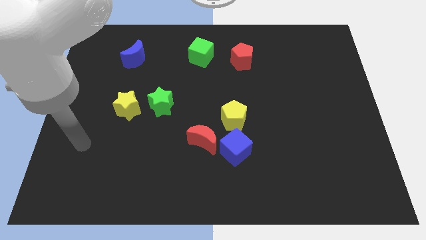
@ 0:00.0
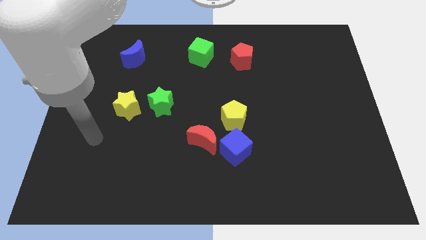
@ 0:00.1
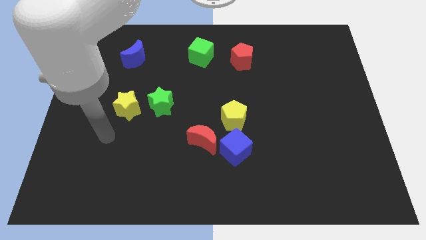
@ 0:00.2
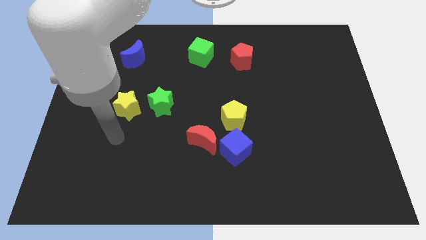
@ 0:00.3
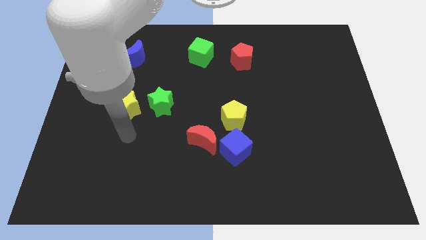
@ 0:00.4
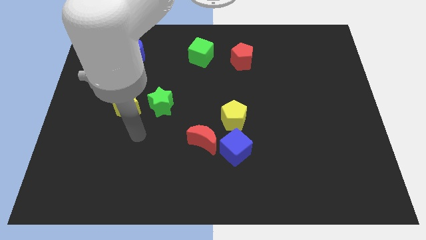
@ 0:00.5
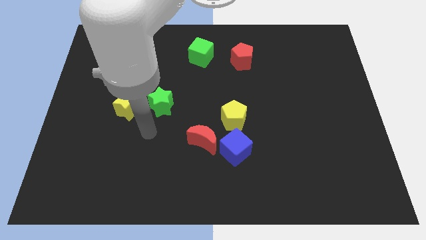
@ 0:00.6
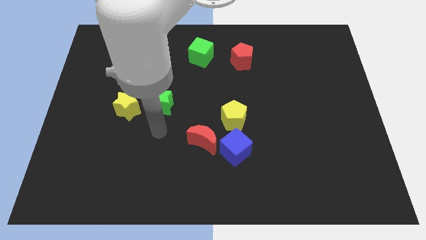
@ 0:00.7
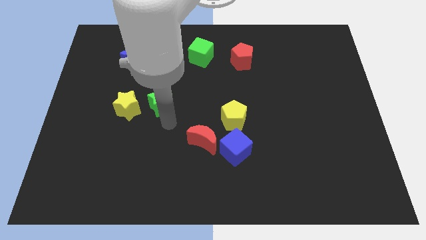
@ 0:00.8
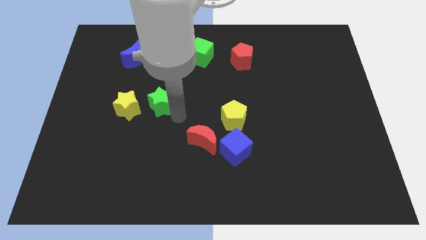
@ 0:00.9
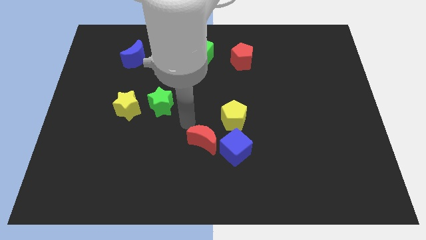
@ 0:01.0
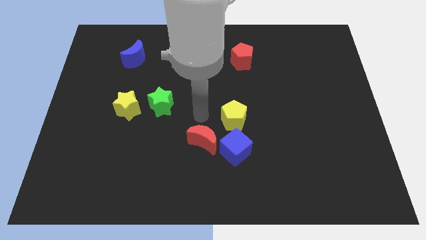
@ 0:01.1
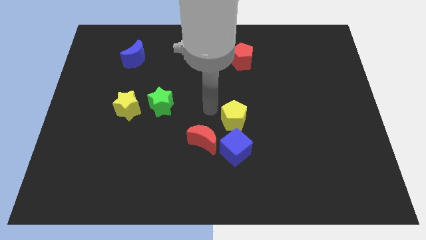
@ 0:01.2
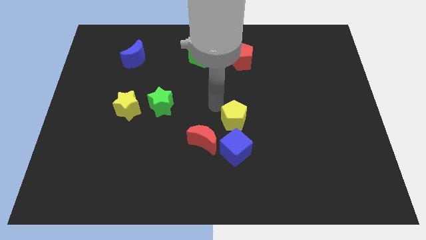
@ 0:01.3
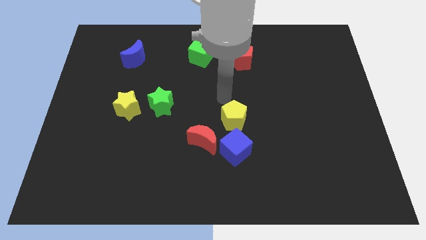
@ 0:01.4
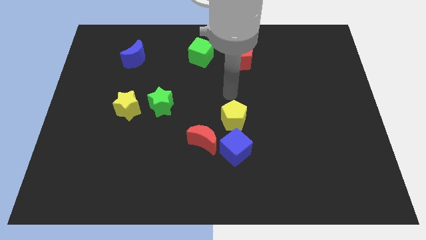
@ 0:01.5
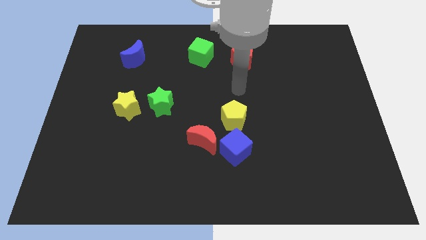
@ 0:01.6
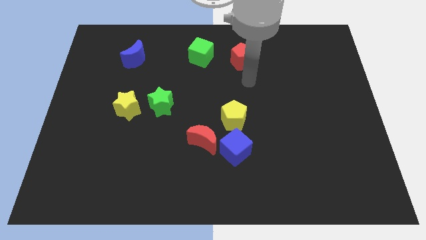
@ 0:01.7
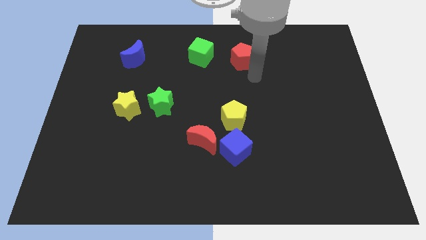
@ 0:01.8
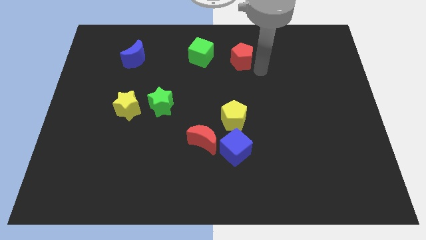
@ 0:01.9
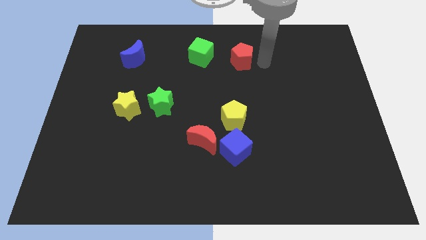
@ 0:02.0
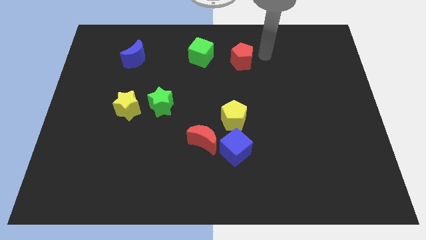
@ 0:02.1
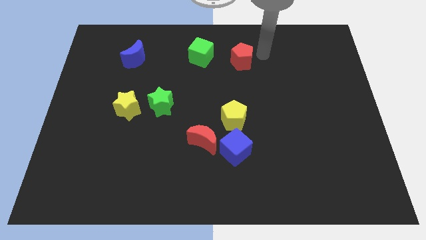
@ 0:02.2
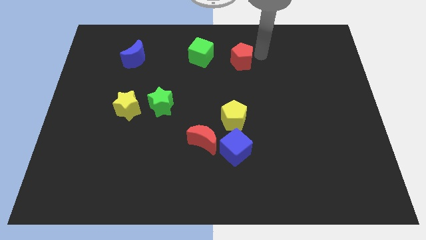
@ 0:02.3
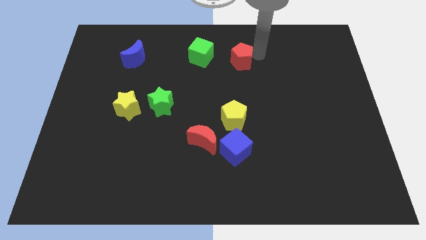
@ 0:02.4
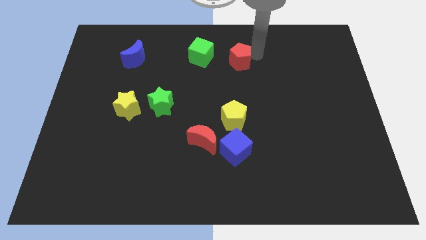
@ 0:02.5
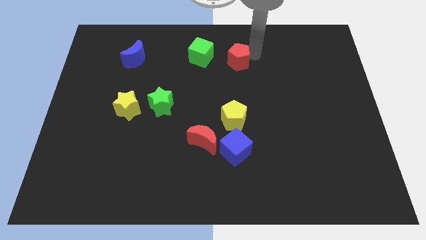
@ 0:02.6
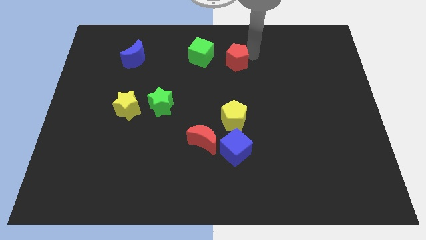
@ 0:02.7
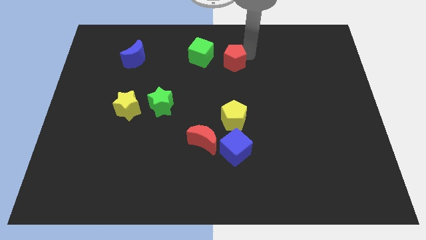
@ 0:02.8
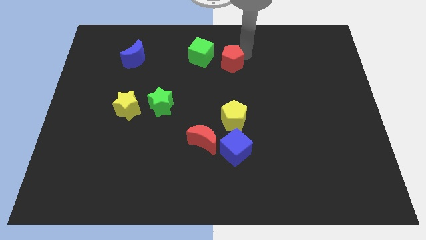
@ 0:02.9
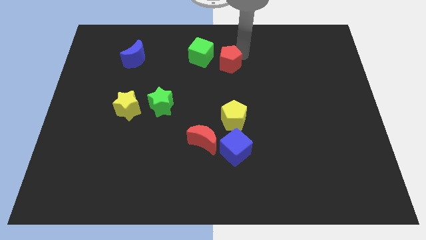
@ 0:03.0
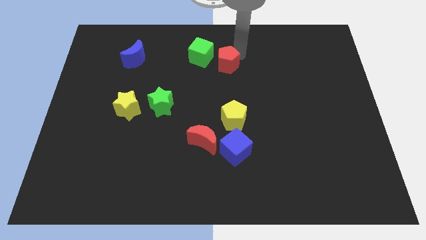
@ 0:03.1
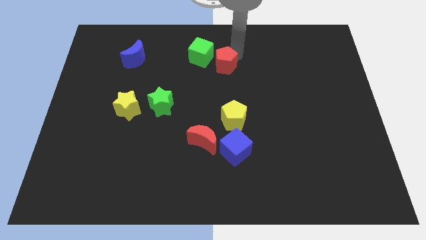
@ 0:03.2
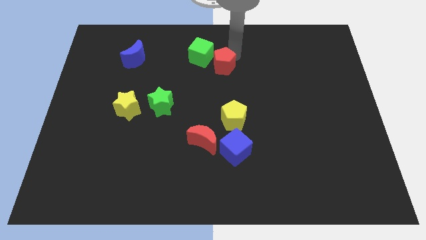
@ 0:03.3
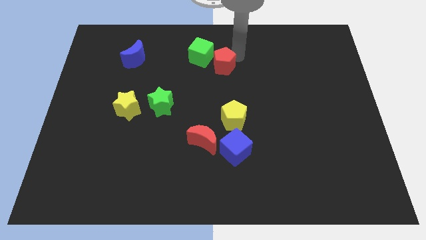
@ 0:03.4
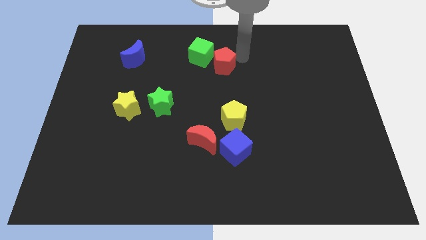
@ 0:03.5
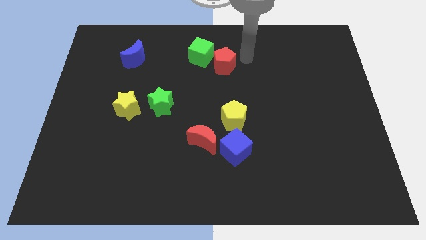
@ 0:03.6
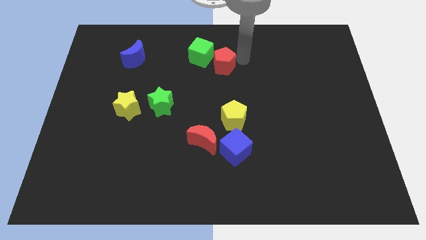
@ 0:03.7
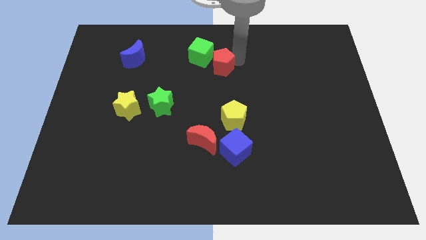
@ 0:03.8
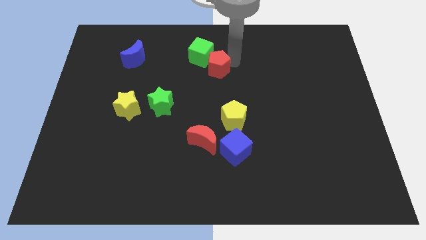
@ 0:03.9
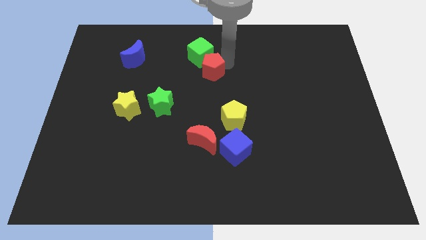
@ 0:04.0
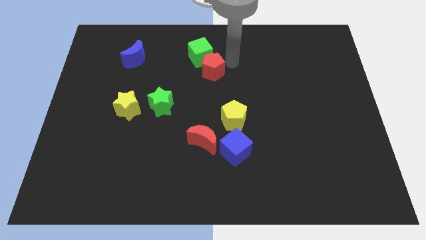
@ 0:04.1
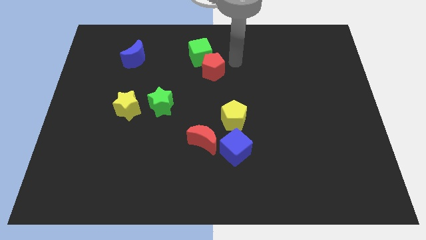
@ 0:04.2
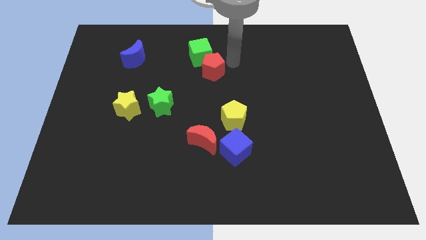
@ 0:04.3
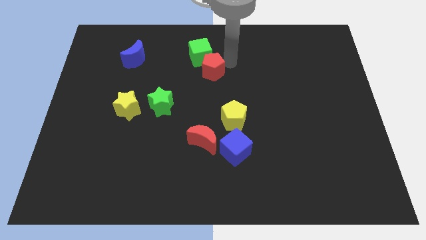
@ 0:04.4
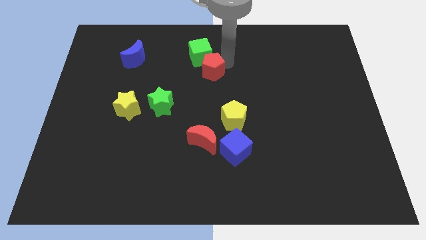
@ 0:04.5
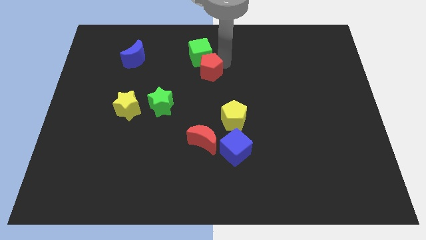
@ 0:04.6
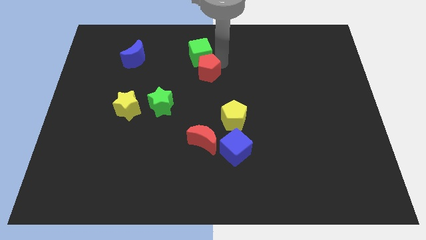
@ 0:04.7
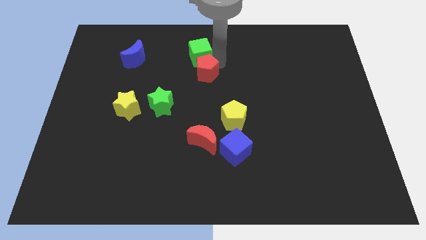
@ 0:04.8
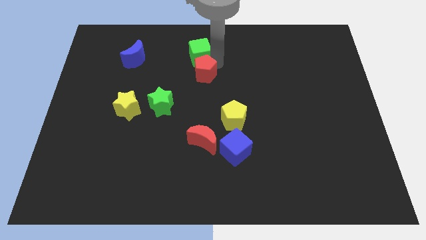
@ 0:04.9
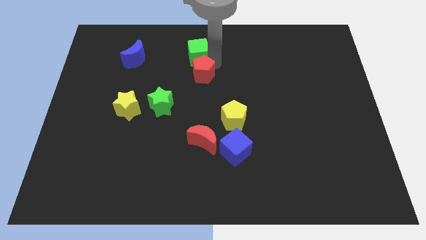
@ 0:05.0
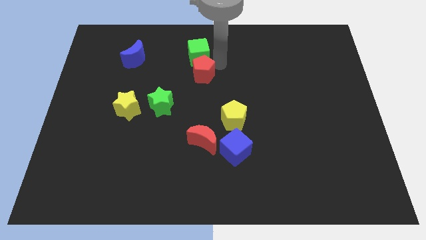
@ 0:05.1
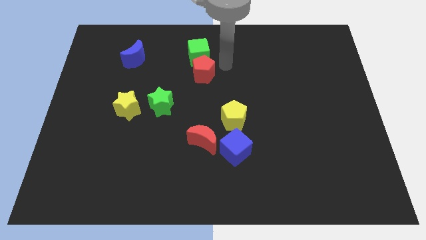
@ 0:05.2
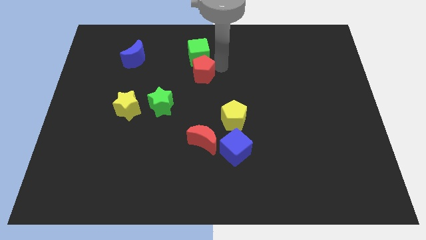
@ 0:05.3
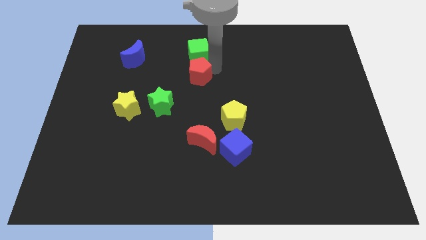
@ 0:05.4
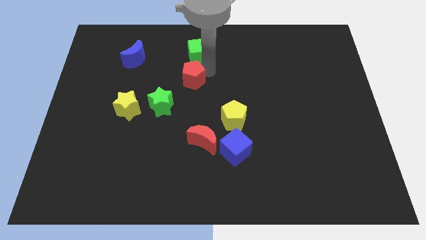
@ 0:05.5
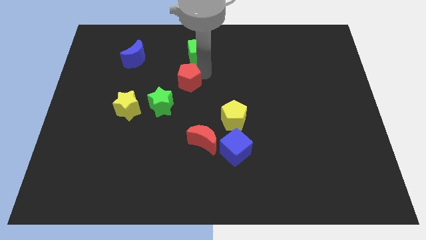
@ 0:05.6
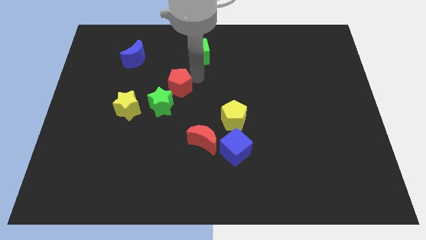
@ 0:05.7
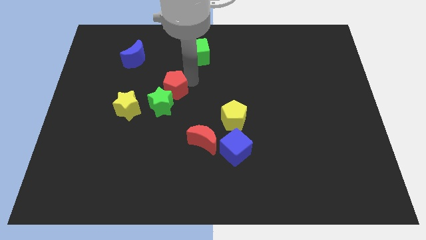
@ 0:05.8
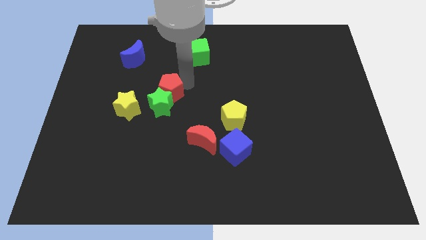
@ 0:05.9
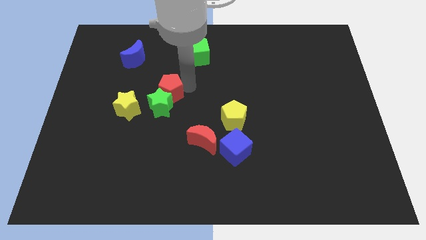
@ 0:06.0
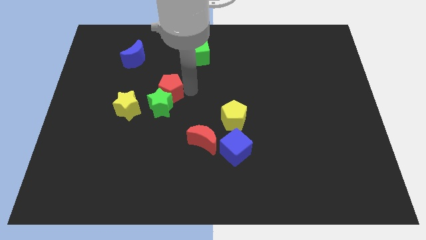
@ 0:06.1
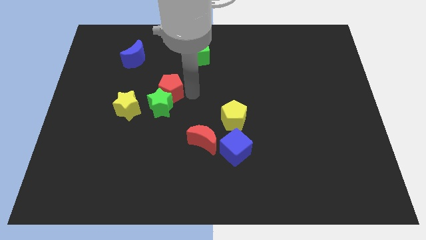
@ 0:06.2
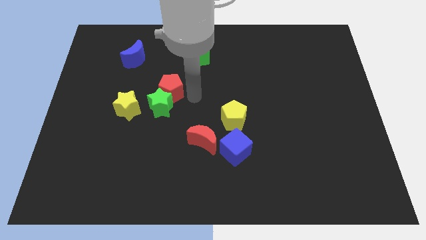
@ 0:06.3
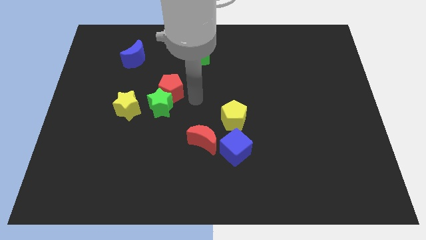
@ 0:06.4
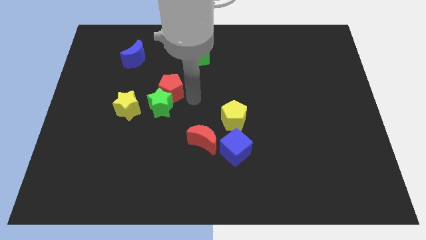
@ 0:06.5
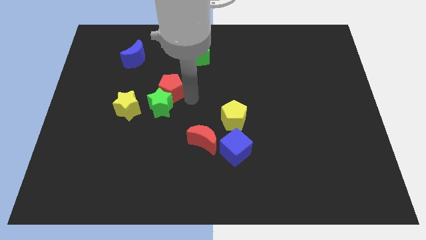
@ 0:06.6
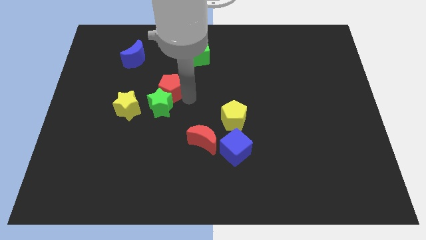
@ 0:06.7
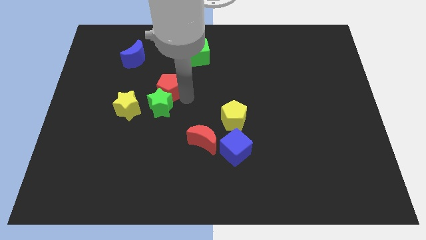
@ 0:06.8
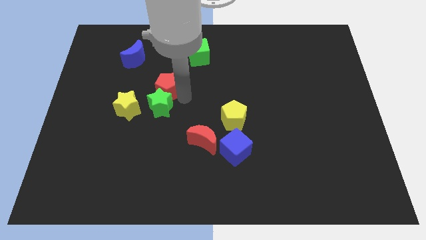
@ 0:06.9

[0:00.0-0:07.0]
put the red pentagon diagonally up and to the left of the green star
